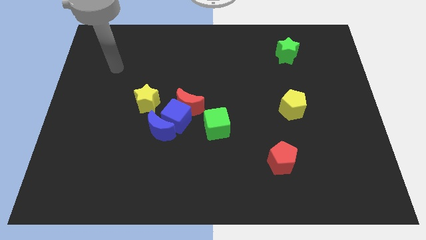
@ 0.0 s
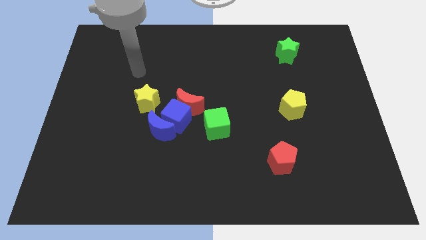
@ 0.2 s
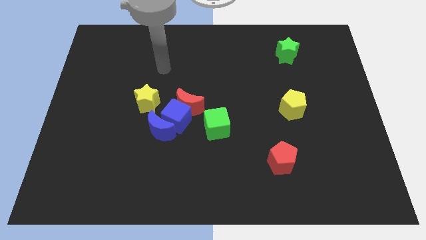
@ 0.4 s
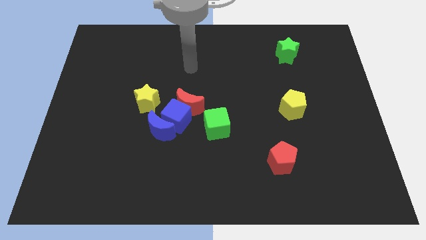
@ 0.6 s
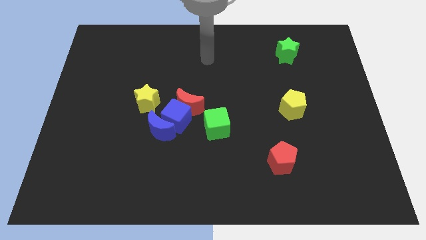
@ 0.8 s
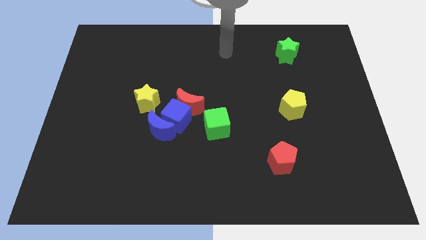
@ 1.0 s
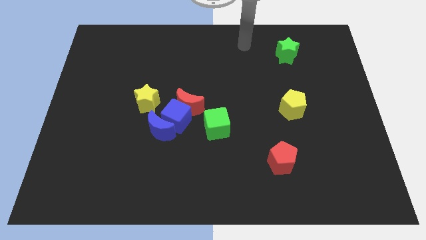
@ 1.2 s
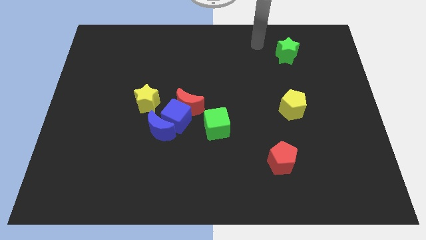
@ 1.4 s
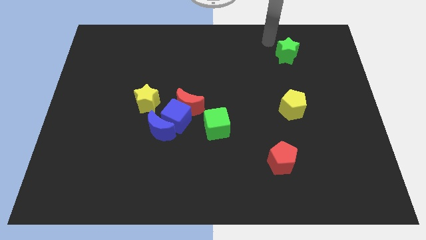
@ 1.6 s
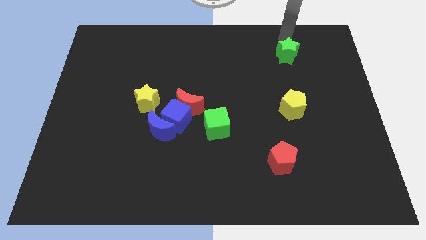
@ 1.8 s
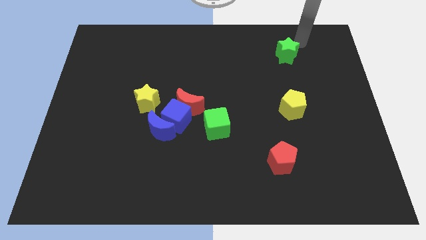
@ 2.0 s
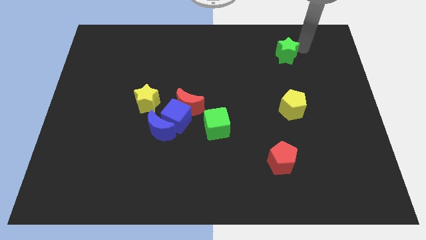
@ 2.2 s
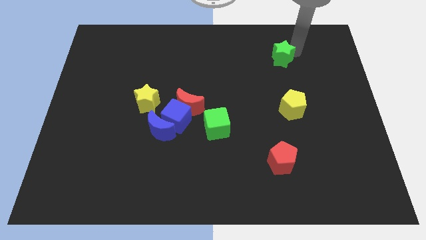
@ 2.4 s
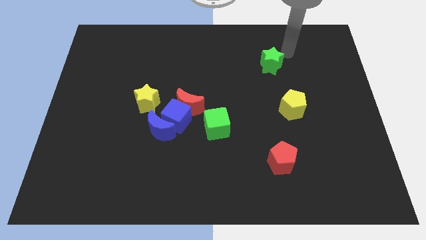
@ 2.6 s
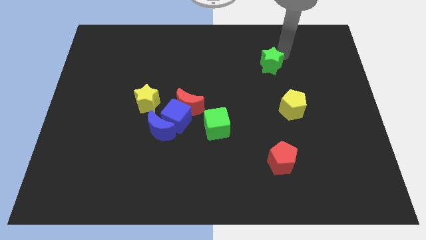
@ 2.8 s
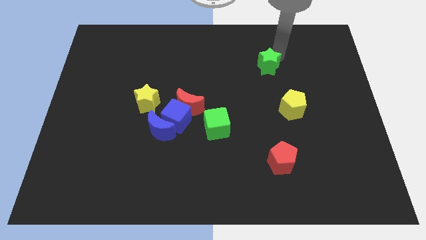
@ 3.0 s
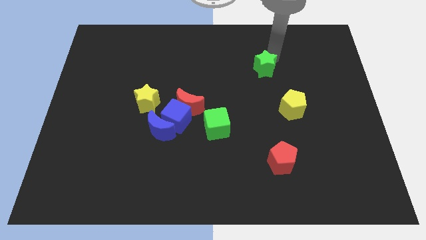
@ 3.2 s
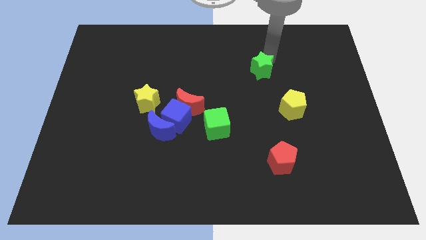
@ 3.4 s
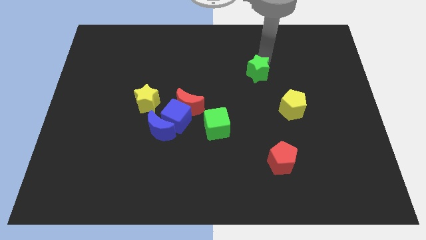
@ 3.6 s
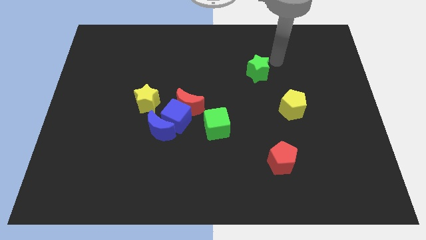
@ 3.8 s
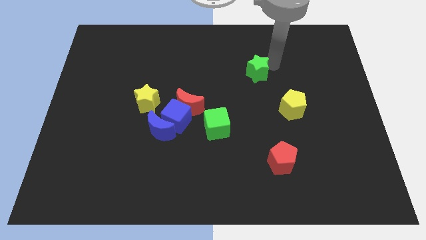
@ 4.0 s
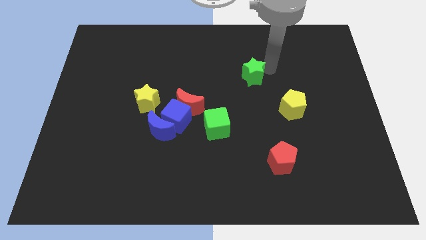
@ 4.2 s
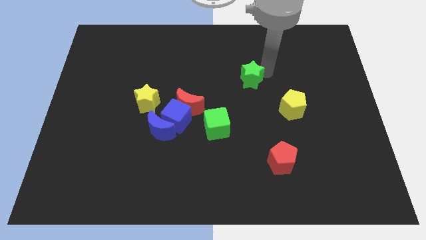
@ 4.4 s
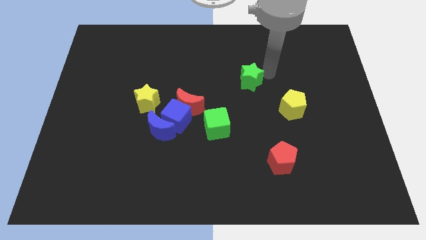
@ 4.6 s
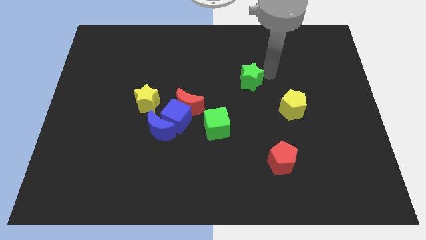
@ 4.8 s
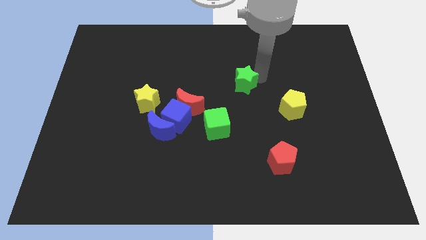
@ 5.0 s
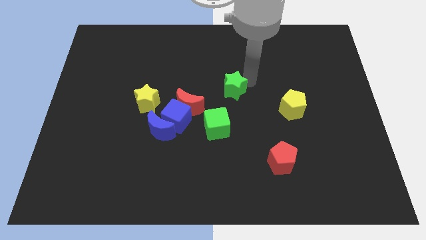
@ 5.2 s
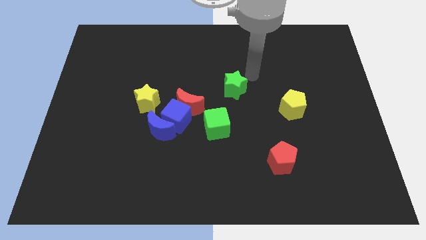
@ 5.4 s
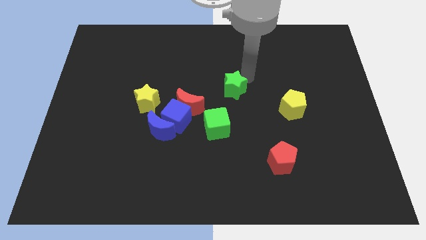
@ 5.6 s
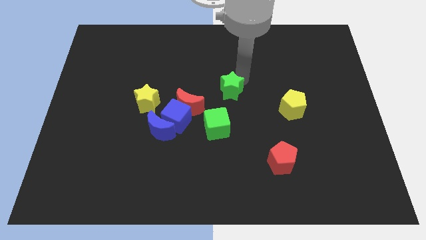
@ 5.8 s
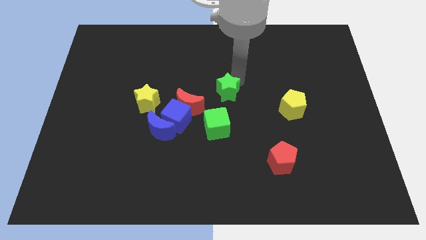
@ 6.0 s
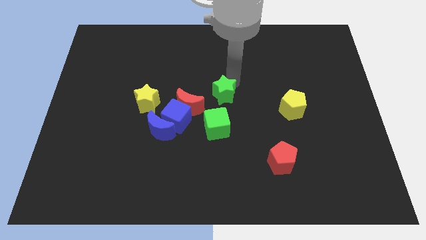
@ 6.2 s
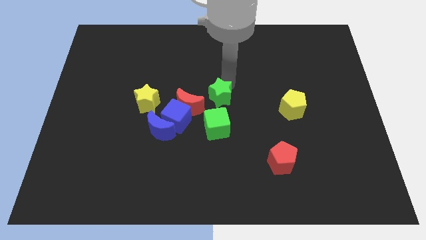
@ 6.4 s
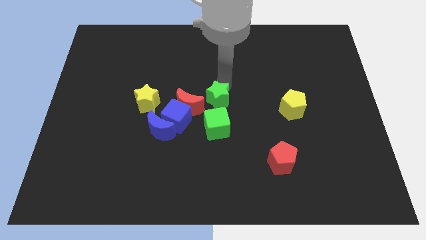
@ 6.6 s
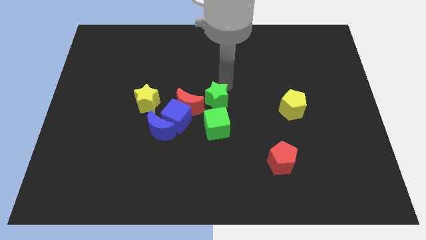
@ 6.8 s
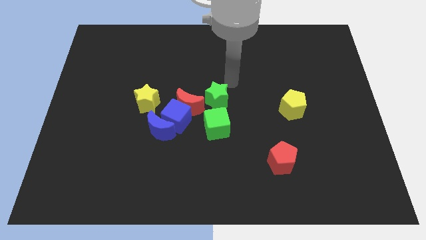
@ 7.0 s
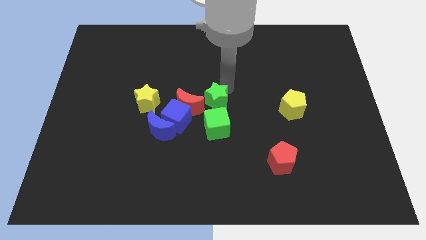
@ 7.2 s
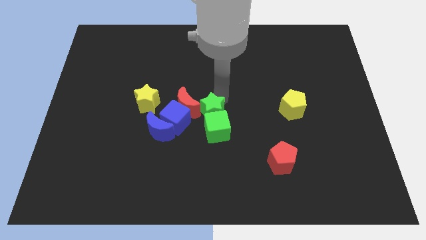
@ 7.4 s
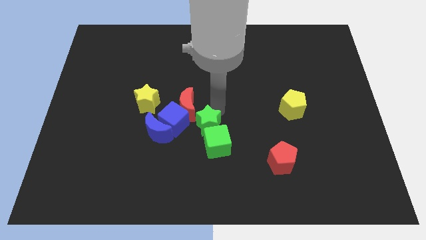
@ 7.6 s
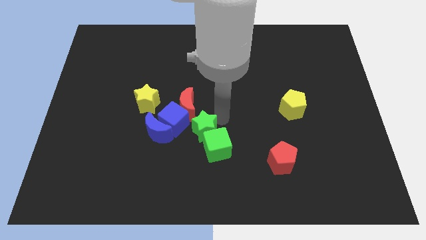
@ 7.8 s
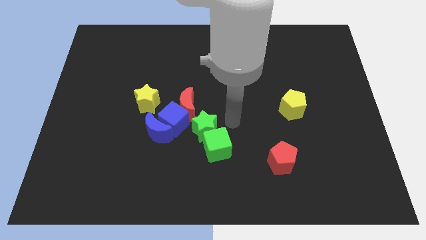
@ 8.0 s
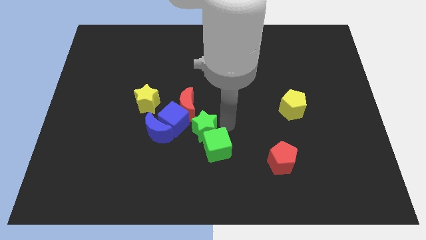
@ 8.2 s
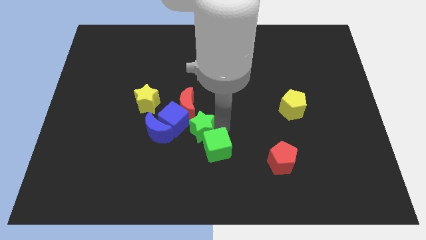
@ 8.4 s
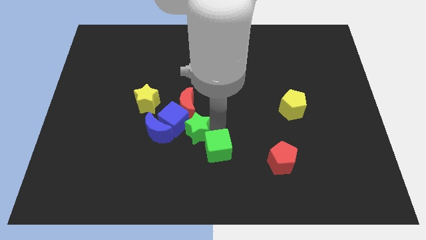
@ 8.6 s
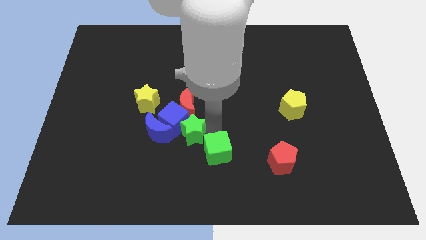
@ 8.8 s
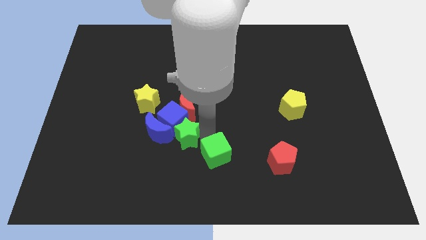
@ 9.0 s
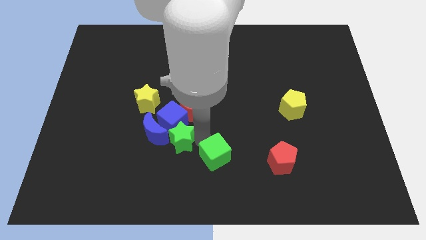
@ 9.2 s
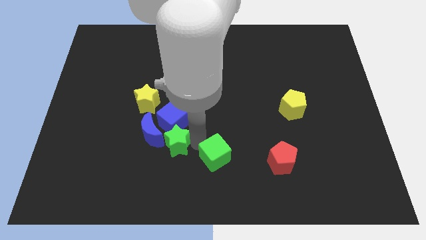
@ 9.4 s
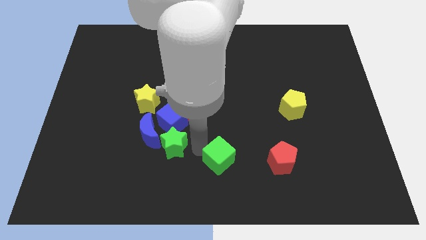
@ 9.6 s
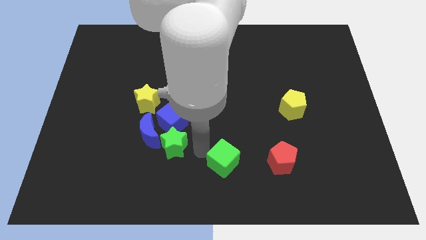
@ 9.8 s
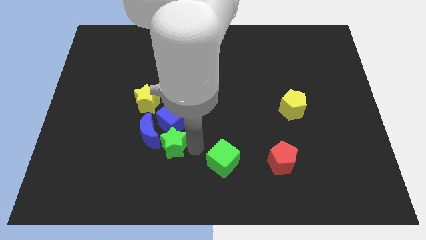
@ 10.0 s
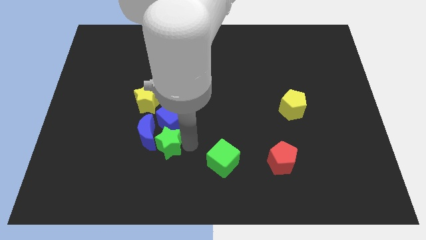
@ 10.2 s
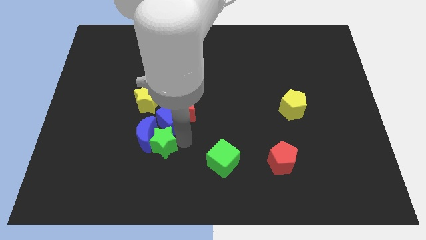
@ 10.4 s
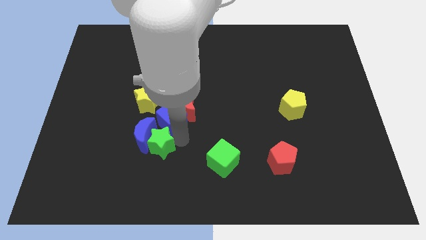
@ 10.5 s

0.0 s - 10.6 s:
put the green star to the bottom side of the yellow star

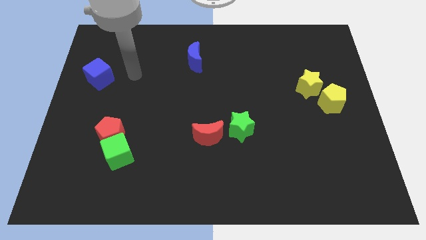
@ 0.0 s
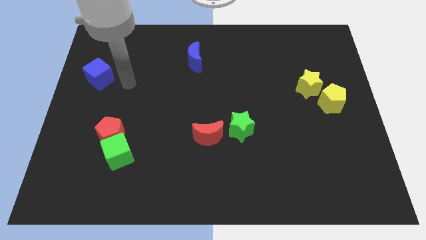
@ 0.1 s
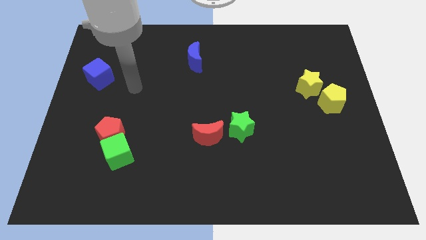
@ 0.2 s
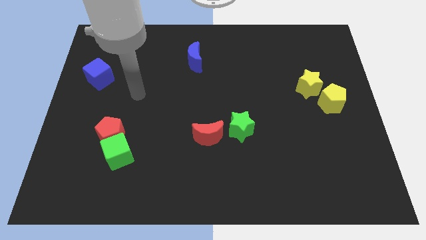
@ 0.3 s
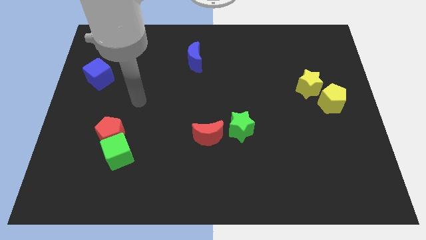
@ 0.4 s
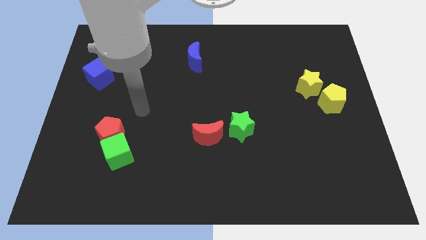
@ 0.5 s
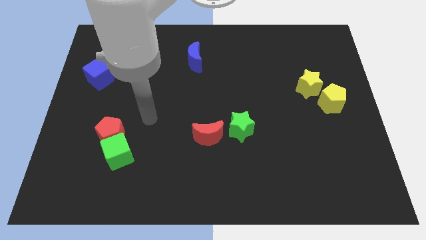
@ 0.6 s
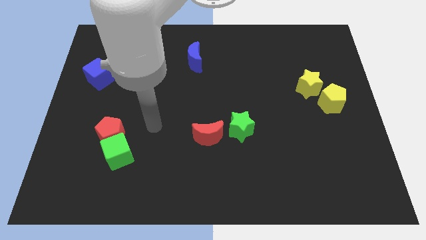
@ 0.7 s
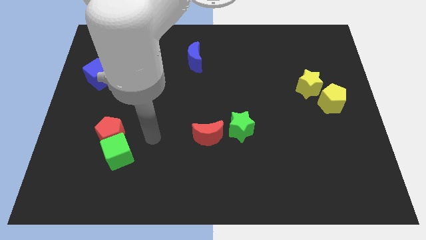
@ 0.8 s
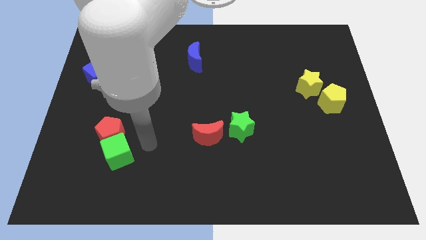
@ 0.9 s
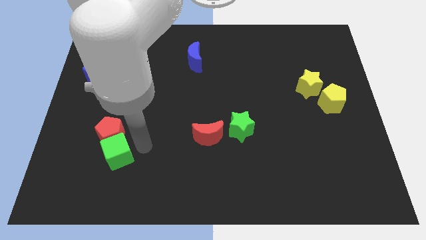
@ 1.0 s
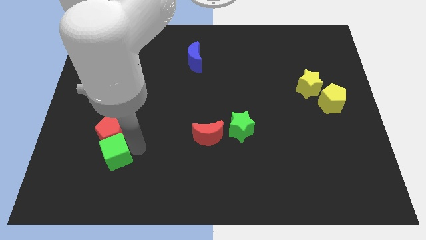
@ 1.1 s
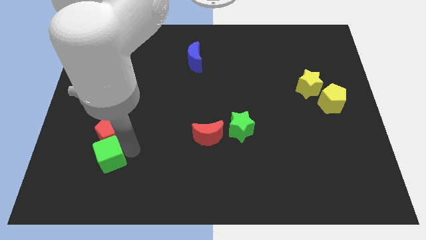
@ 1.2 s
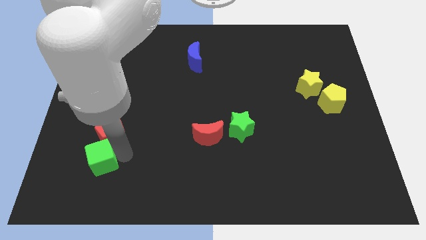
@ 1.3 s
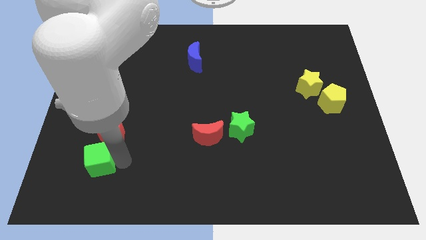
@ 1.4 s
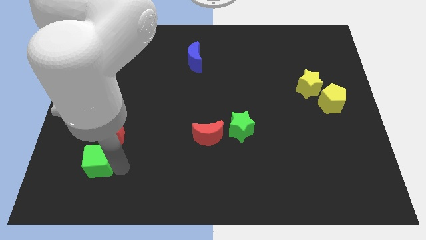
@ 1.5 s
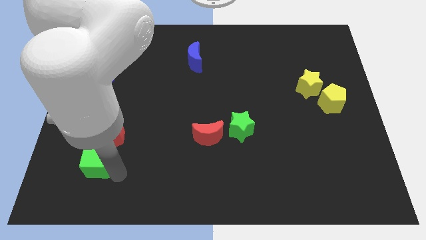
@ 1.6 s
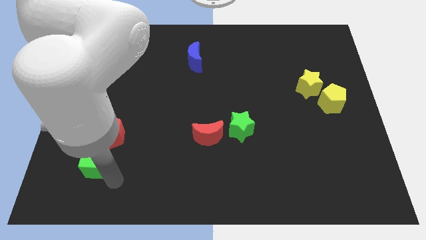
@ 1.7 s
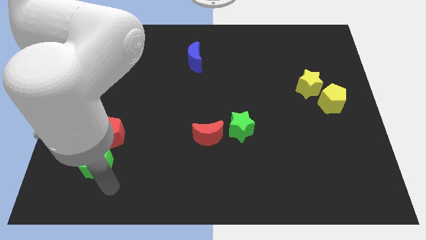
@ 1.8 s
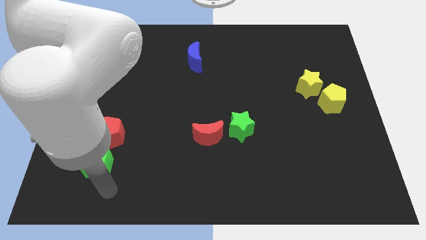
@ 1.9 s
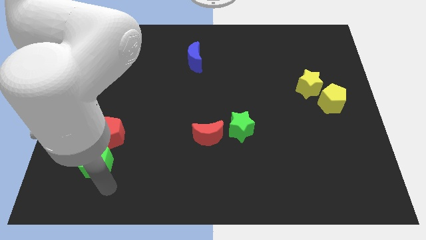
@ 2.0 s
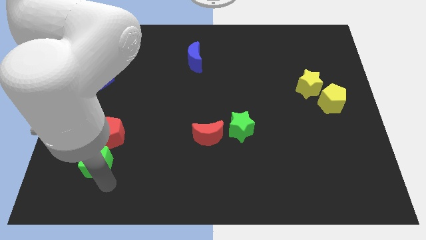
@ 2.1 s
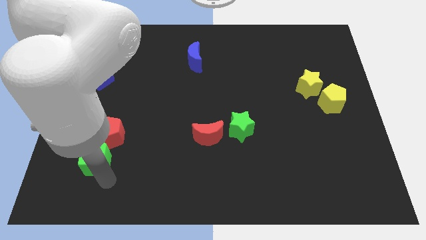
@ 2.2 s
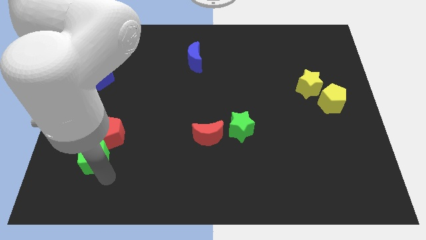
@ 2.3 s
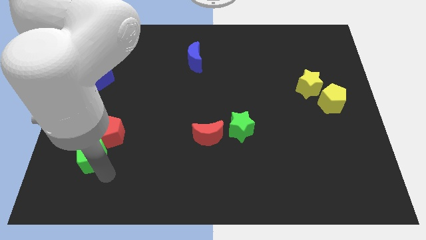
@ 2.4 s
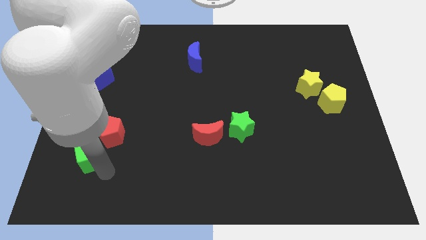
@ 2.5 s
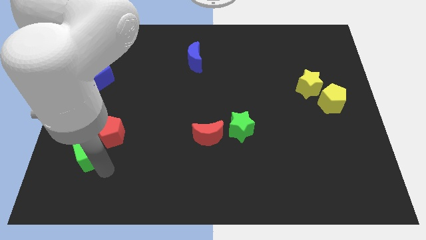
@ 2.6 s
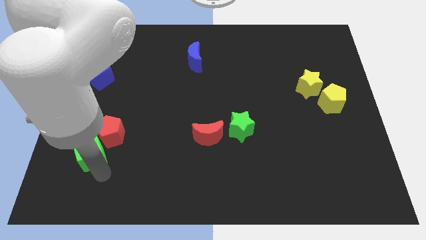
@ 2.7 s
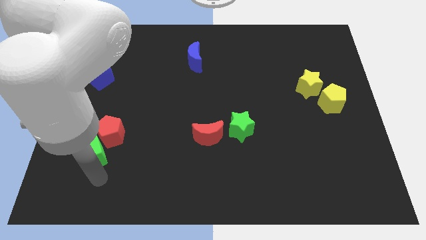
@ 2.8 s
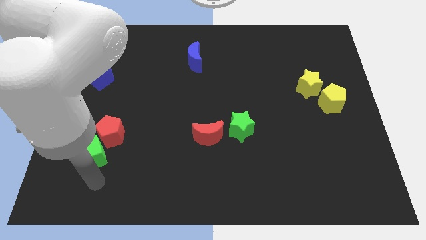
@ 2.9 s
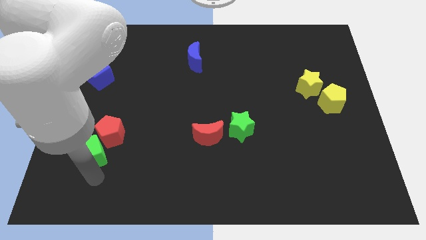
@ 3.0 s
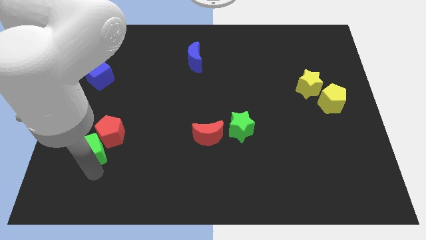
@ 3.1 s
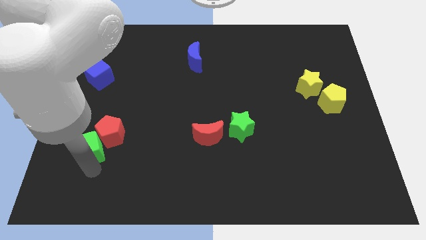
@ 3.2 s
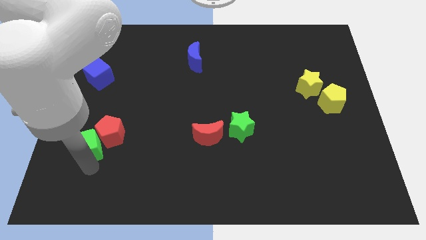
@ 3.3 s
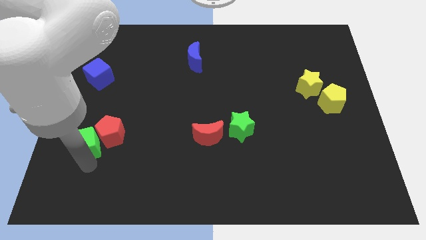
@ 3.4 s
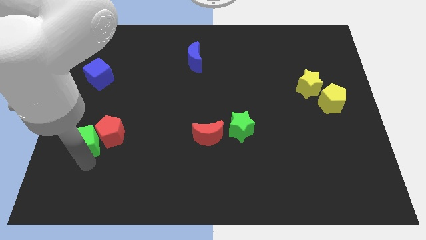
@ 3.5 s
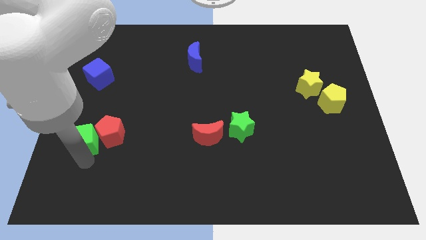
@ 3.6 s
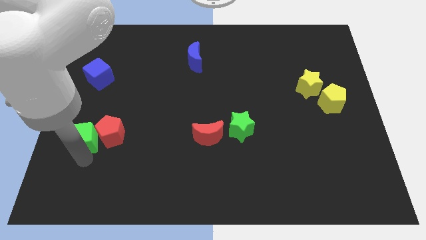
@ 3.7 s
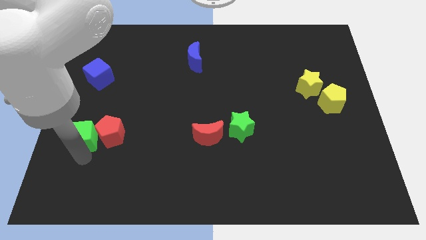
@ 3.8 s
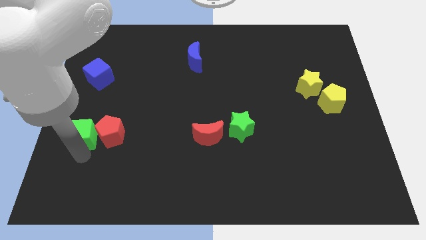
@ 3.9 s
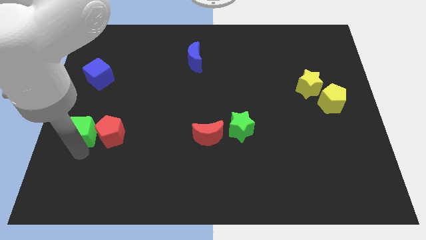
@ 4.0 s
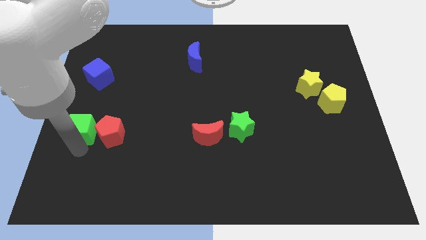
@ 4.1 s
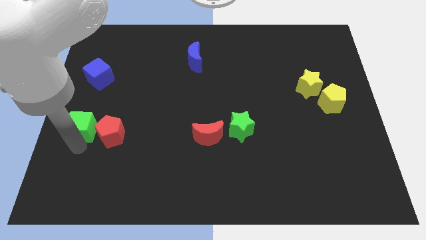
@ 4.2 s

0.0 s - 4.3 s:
move the green cube to the bottom of the blue cube
